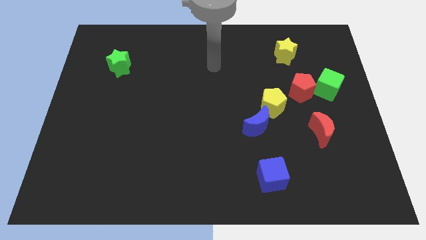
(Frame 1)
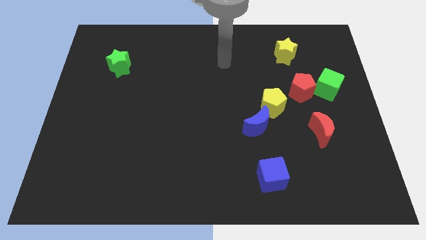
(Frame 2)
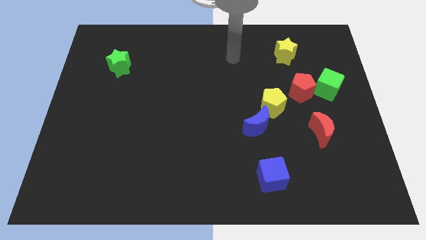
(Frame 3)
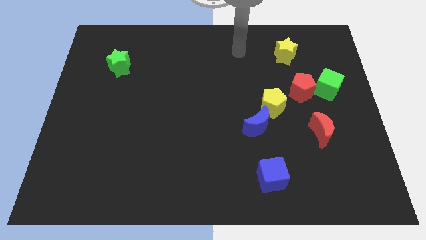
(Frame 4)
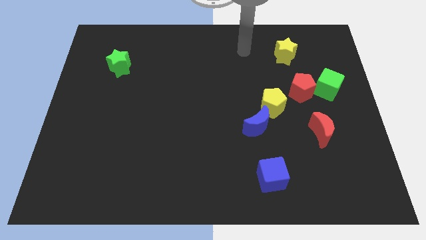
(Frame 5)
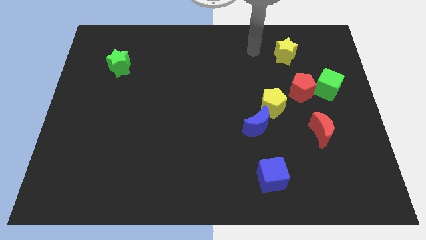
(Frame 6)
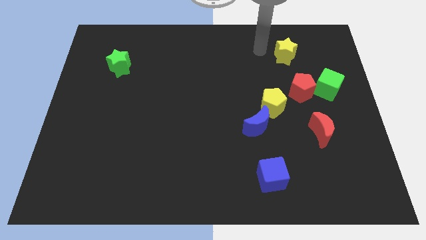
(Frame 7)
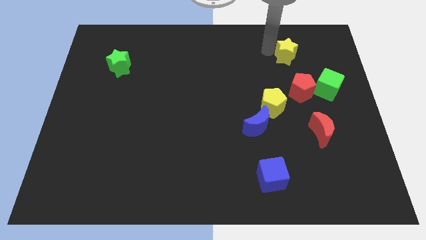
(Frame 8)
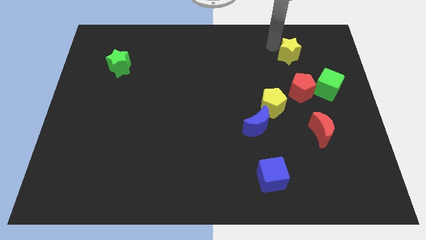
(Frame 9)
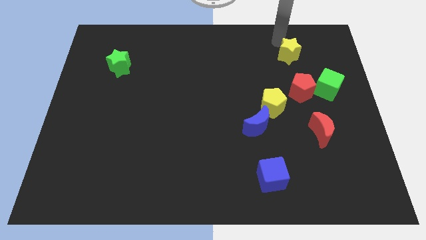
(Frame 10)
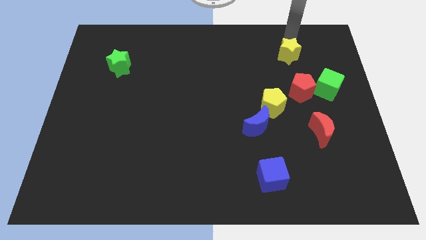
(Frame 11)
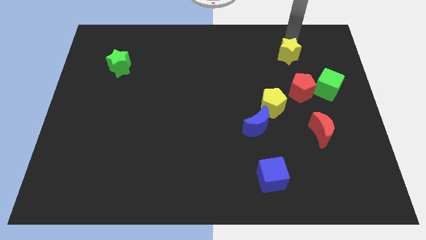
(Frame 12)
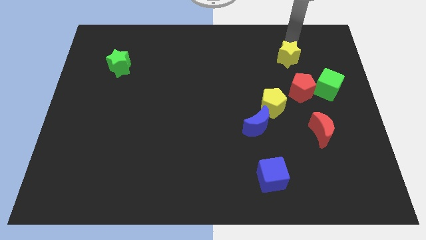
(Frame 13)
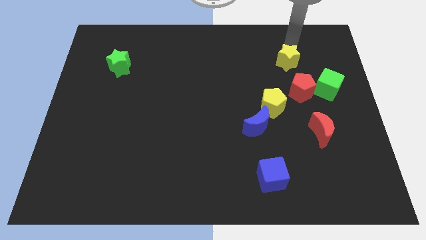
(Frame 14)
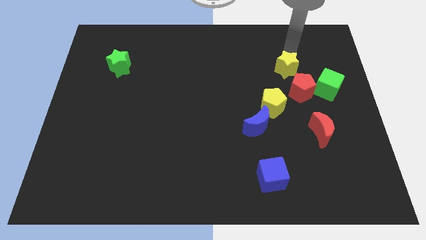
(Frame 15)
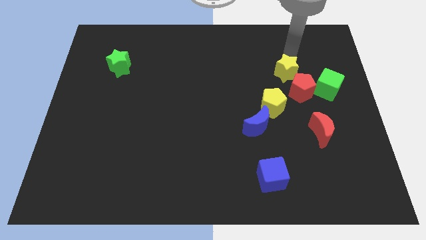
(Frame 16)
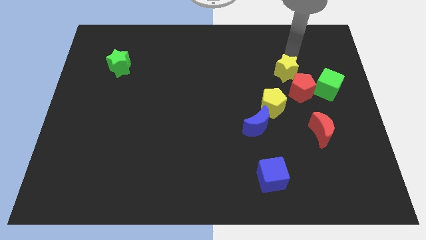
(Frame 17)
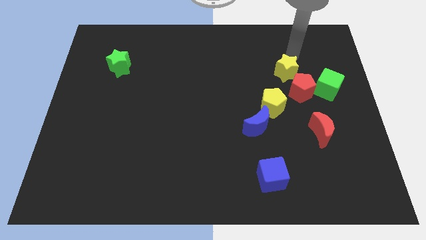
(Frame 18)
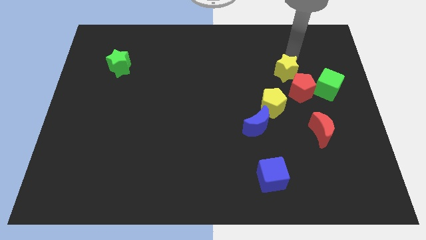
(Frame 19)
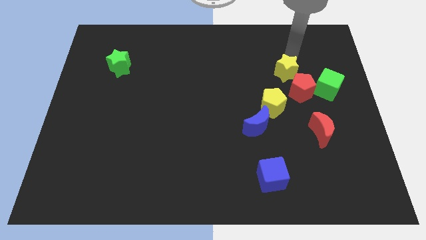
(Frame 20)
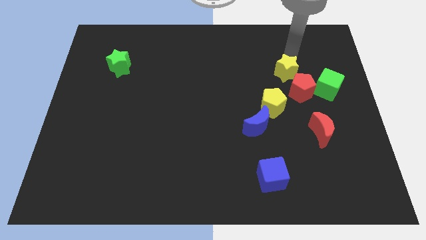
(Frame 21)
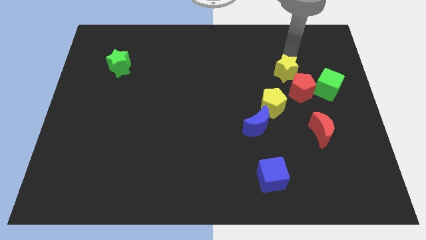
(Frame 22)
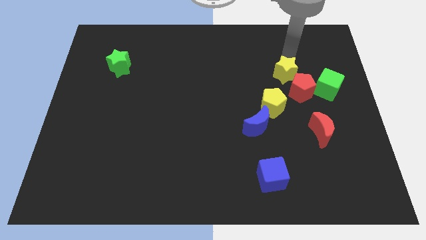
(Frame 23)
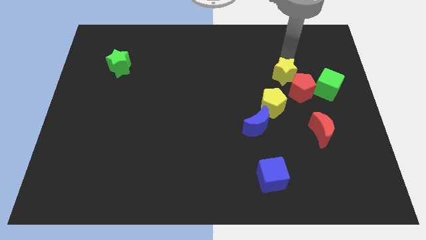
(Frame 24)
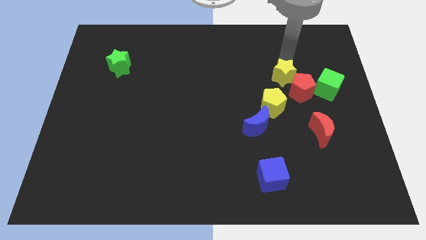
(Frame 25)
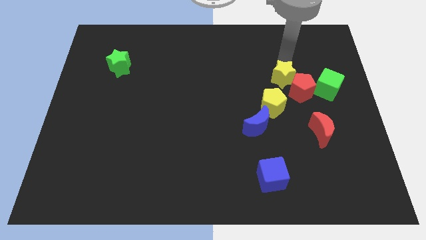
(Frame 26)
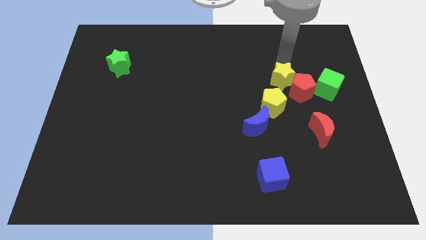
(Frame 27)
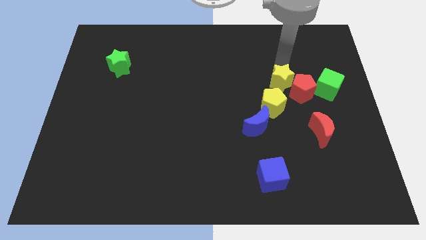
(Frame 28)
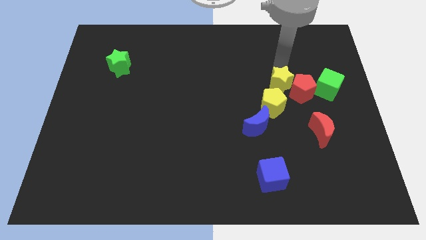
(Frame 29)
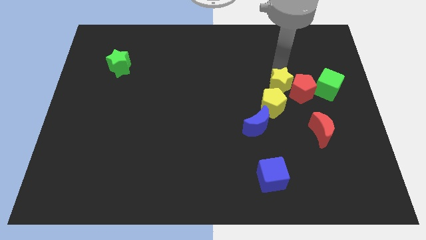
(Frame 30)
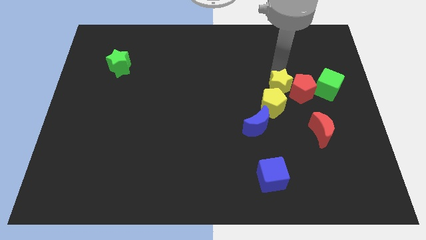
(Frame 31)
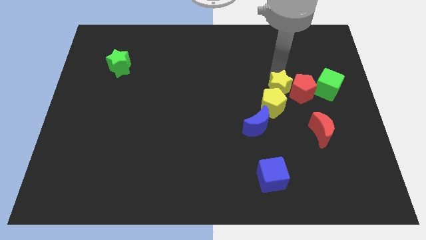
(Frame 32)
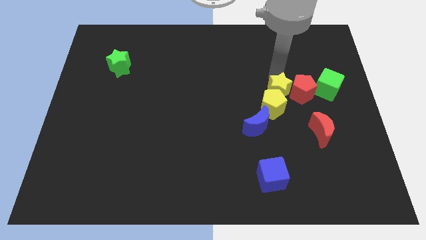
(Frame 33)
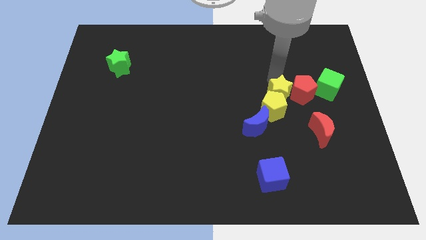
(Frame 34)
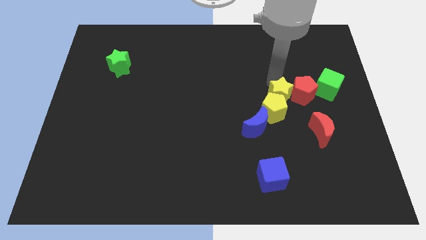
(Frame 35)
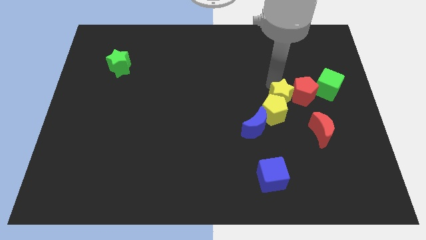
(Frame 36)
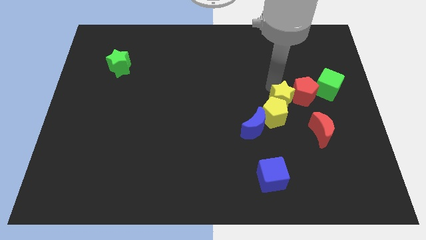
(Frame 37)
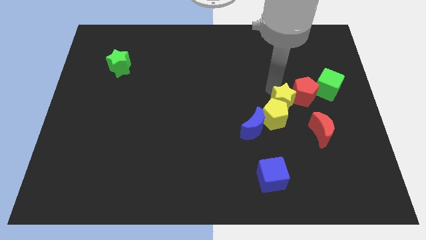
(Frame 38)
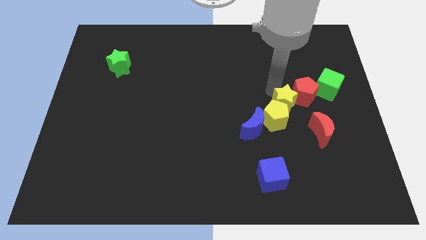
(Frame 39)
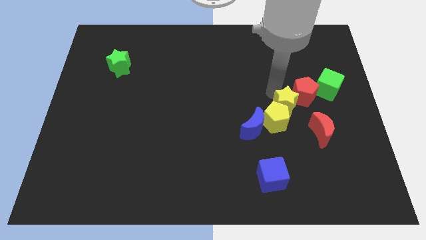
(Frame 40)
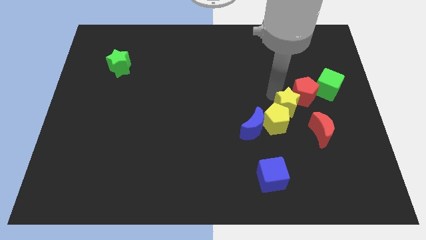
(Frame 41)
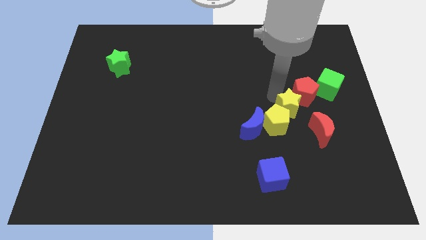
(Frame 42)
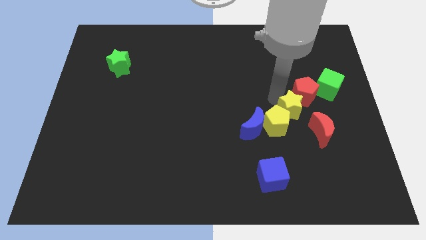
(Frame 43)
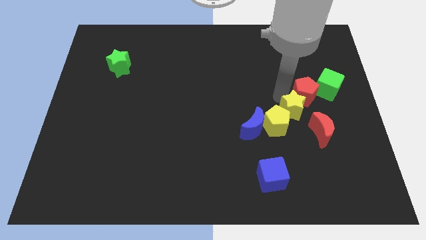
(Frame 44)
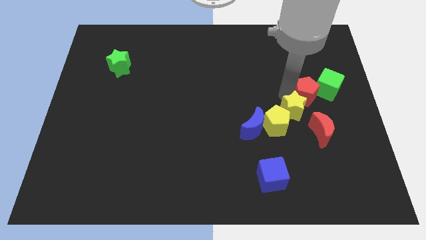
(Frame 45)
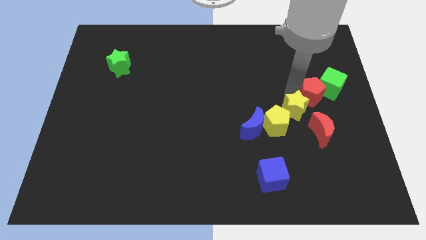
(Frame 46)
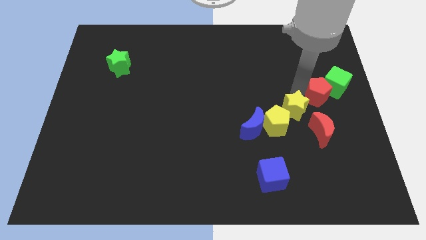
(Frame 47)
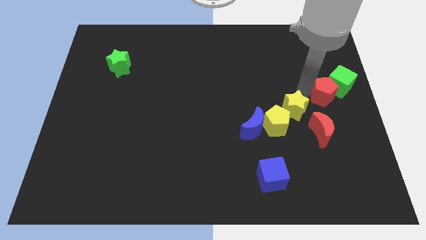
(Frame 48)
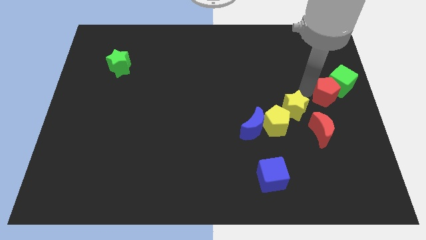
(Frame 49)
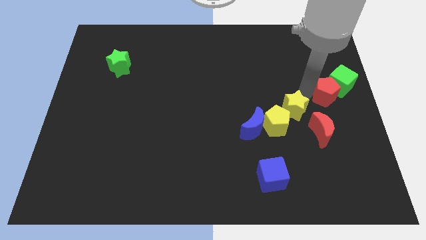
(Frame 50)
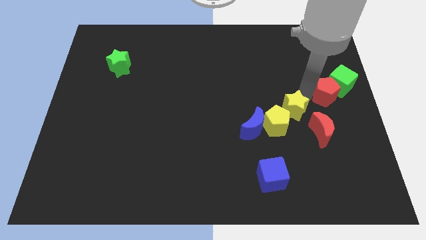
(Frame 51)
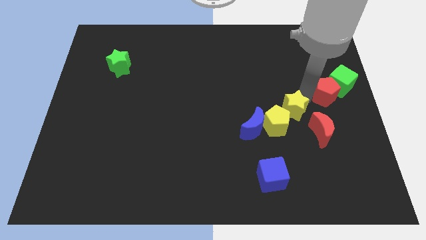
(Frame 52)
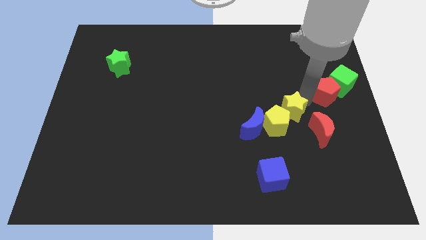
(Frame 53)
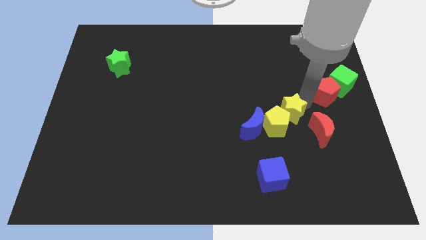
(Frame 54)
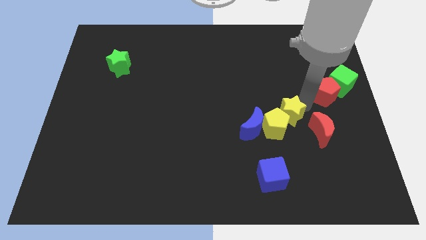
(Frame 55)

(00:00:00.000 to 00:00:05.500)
push the yellow star to the left of the red moon

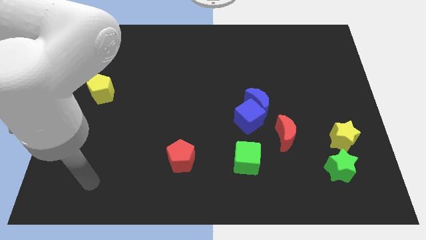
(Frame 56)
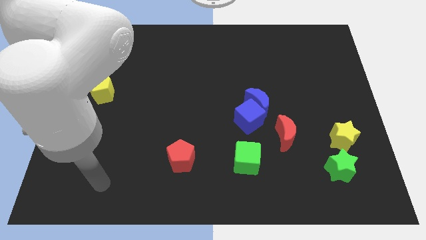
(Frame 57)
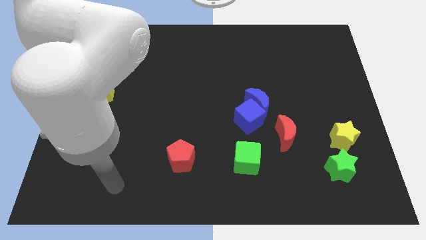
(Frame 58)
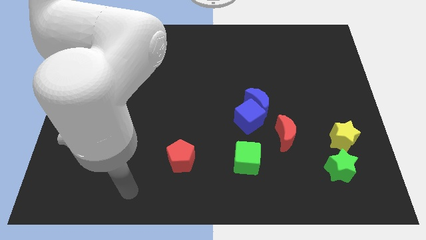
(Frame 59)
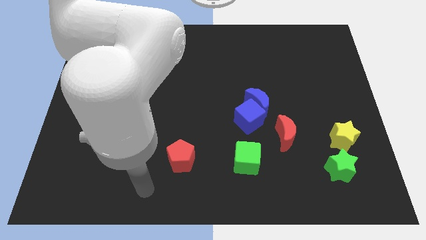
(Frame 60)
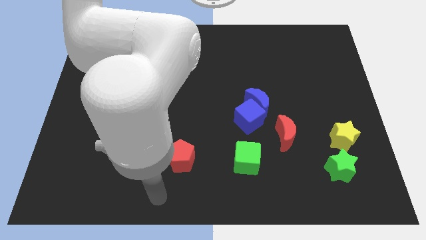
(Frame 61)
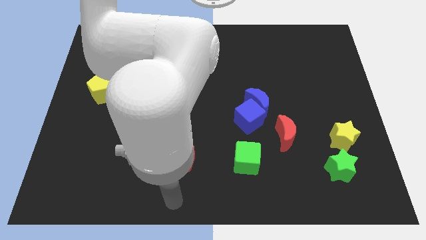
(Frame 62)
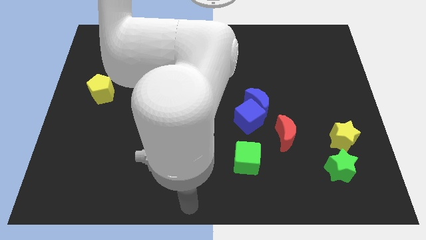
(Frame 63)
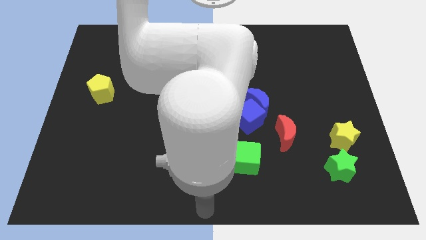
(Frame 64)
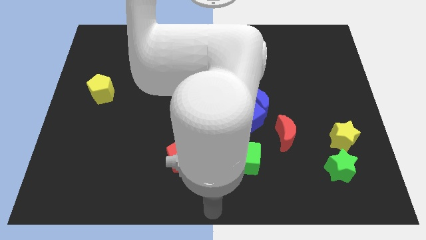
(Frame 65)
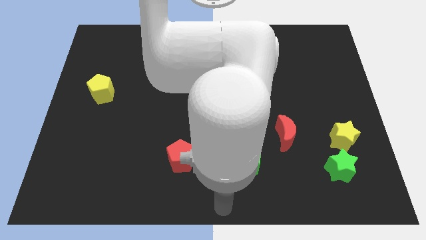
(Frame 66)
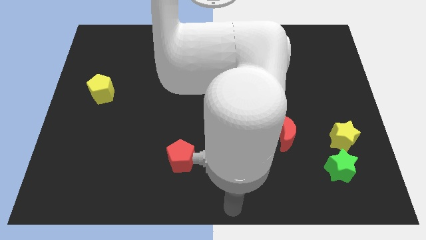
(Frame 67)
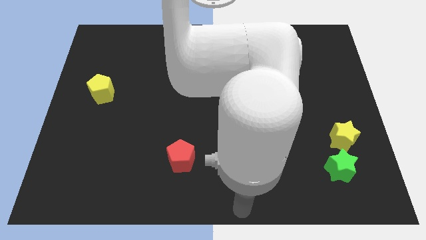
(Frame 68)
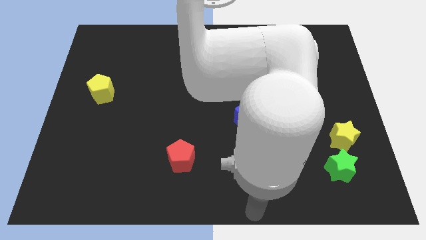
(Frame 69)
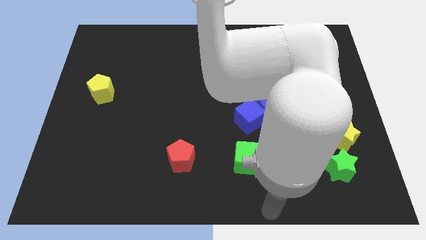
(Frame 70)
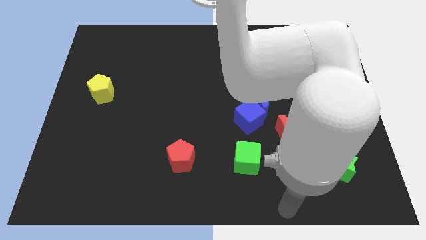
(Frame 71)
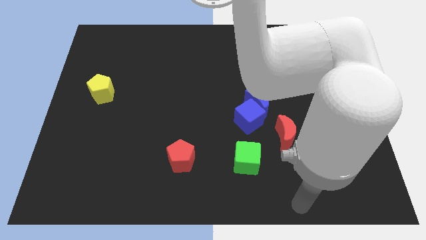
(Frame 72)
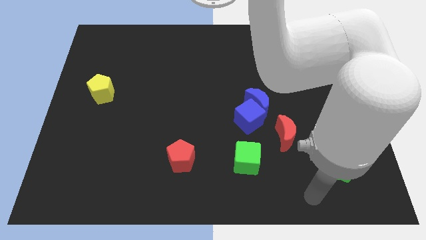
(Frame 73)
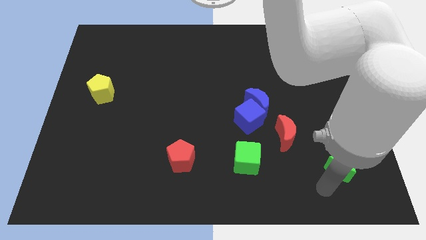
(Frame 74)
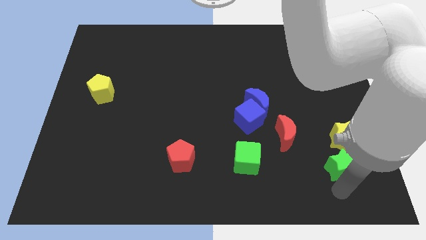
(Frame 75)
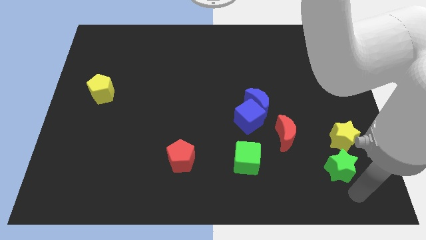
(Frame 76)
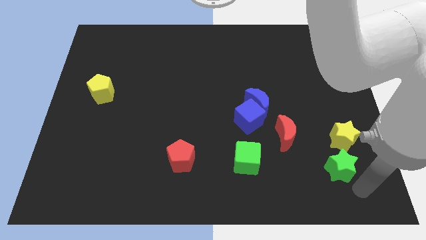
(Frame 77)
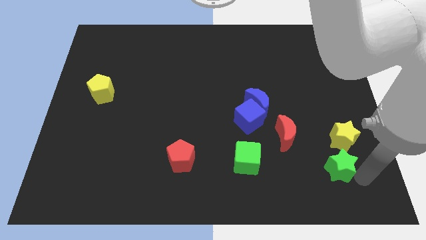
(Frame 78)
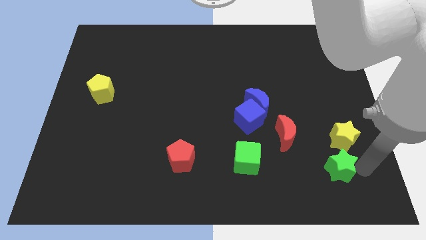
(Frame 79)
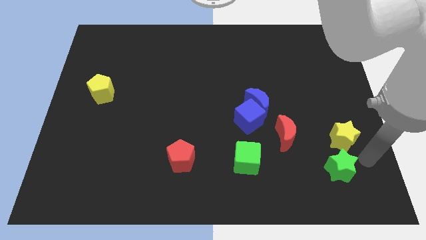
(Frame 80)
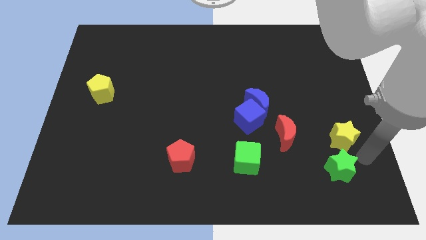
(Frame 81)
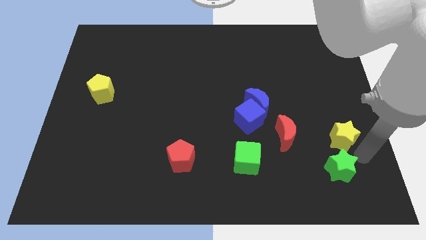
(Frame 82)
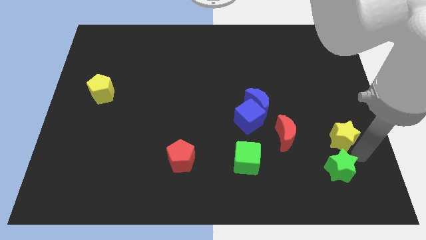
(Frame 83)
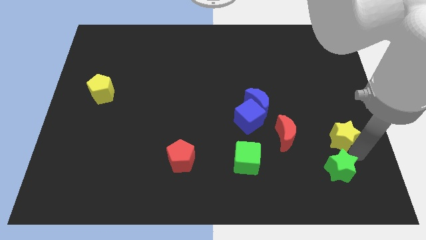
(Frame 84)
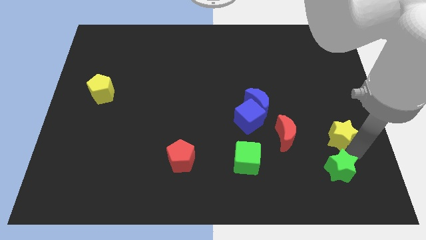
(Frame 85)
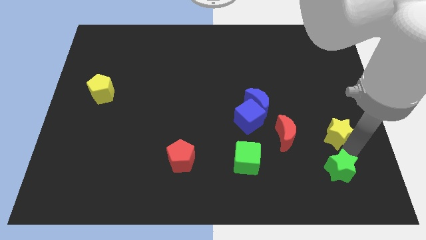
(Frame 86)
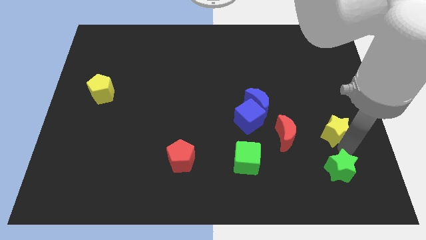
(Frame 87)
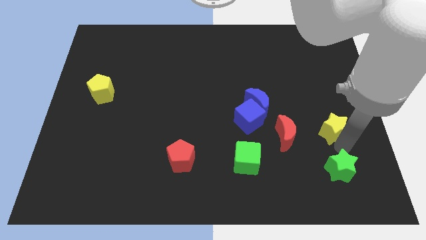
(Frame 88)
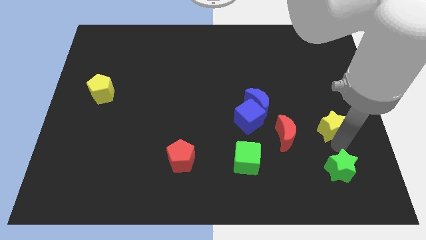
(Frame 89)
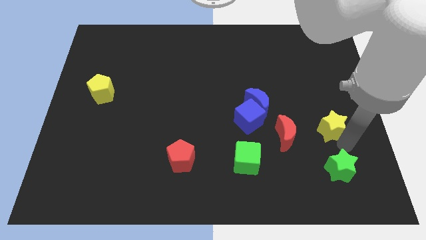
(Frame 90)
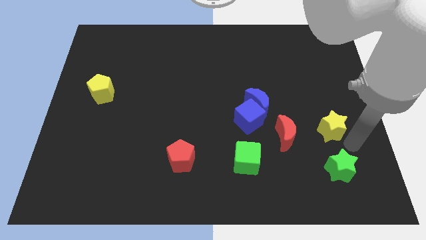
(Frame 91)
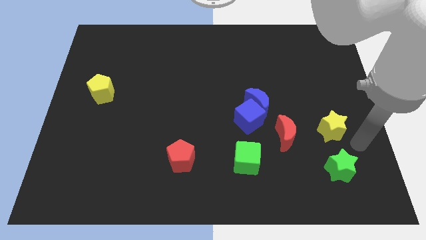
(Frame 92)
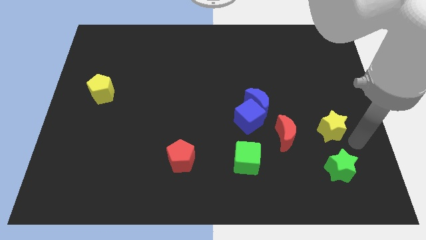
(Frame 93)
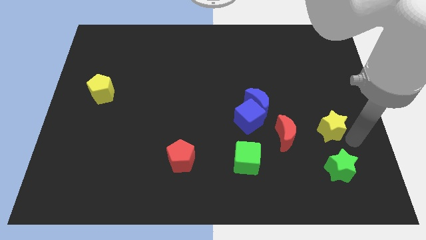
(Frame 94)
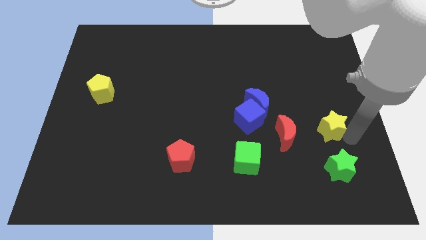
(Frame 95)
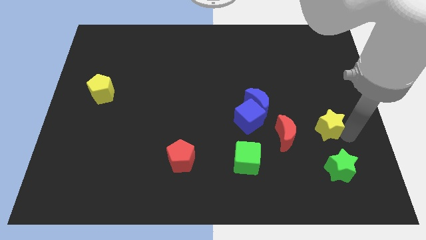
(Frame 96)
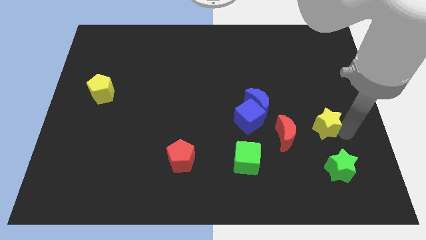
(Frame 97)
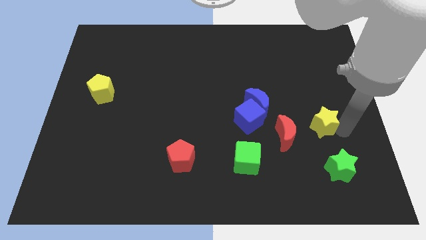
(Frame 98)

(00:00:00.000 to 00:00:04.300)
put the yellow star diagonally up and to the right of the red moon
